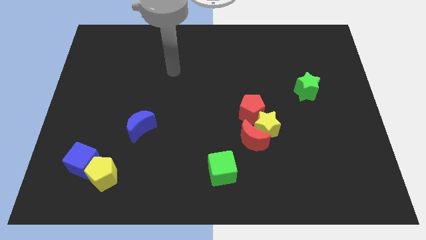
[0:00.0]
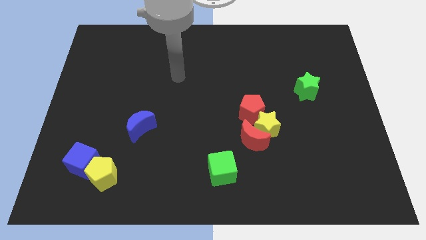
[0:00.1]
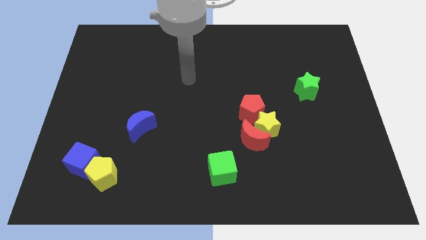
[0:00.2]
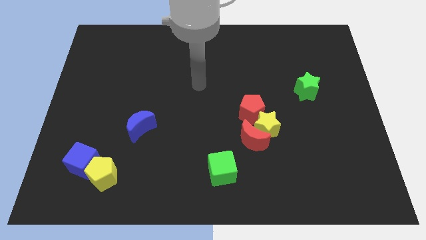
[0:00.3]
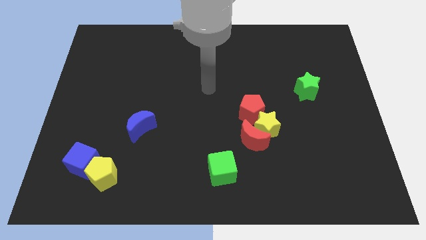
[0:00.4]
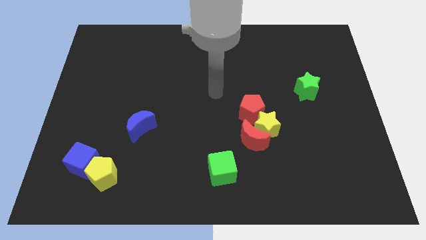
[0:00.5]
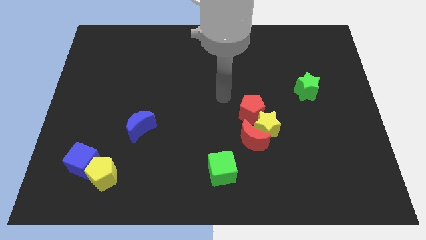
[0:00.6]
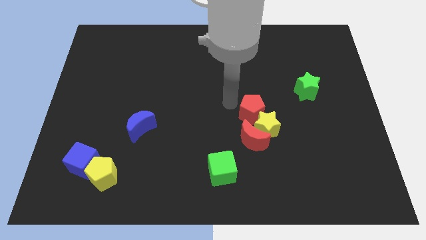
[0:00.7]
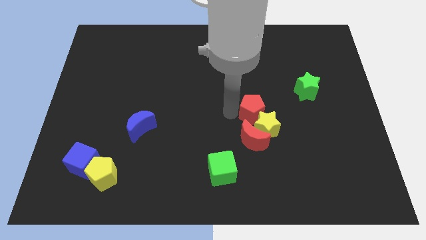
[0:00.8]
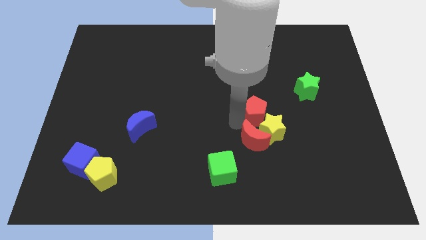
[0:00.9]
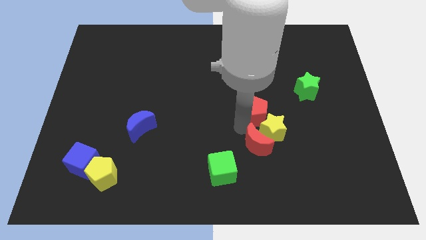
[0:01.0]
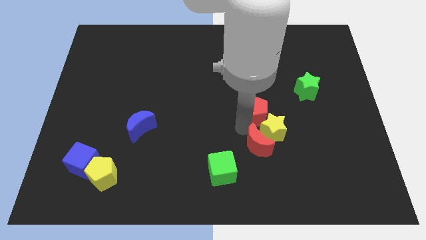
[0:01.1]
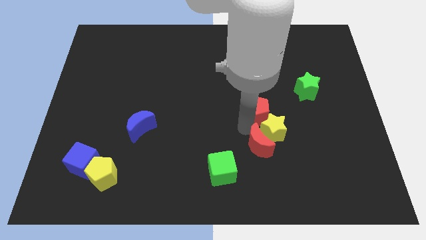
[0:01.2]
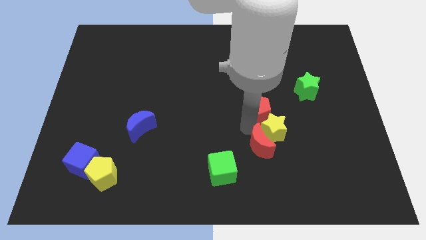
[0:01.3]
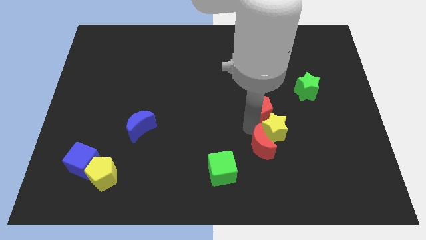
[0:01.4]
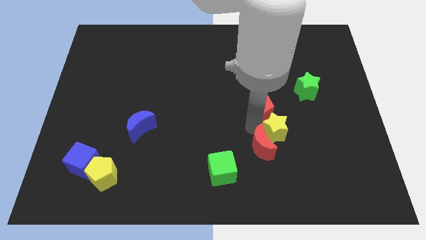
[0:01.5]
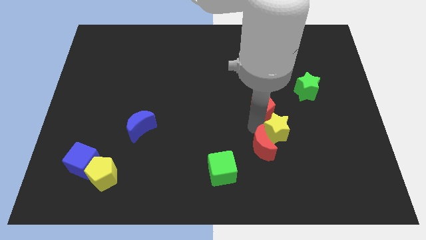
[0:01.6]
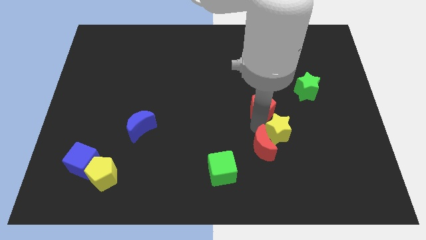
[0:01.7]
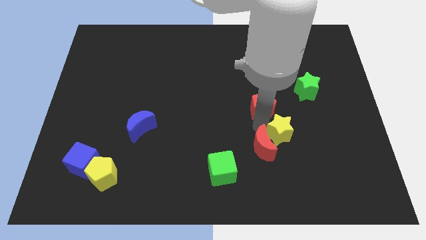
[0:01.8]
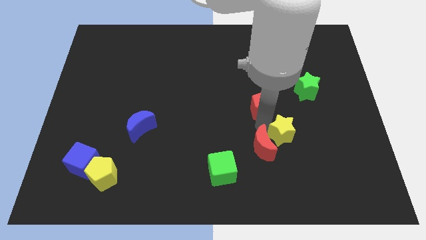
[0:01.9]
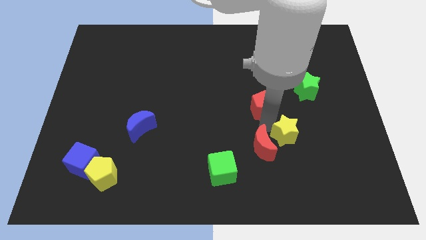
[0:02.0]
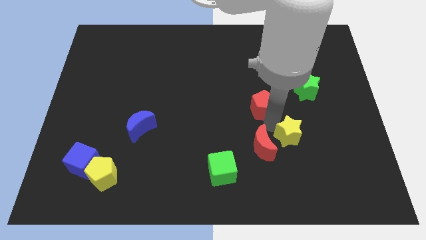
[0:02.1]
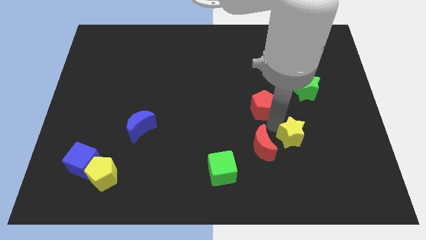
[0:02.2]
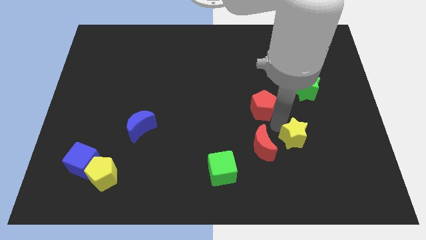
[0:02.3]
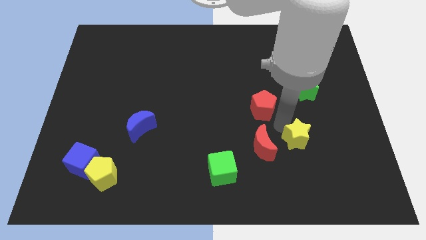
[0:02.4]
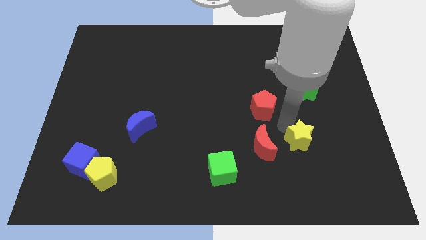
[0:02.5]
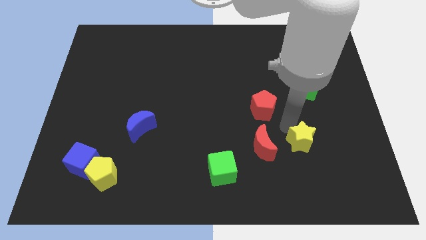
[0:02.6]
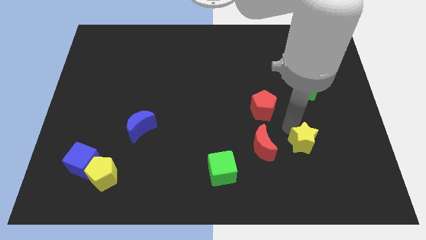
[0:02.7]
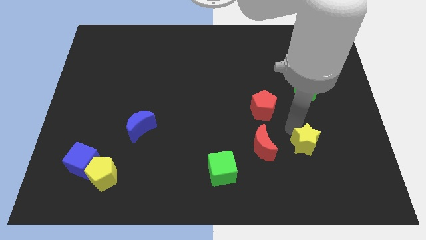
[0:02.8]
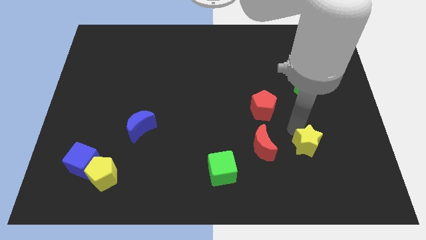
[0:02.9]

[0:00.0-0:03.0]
move the yellow star away from the red moon and red pentagon

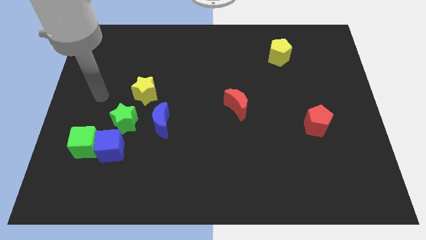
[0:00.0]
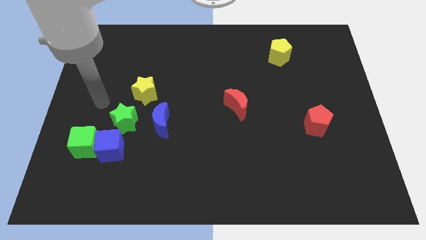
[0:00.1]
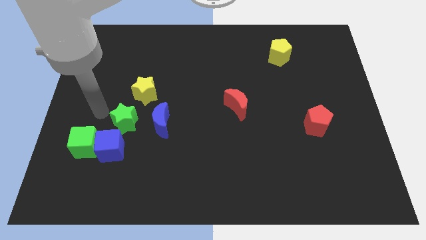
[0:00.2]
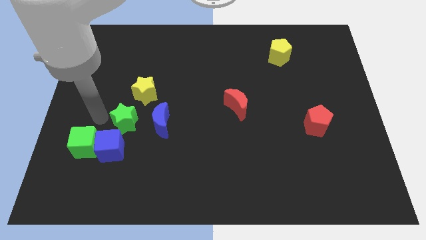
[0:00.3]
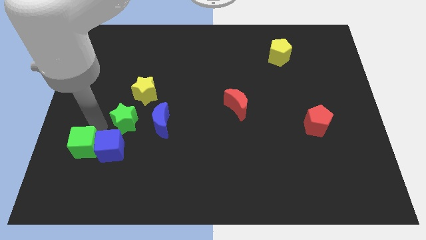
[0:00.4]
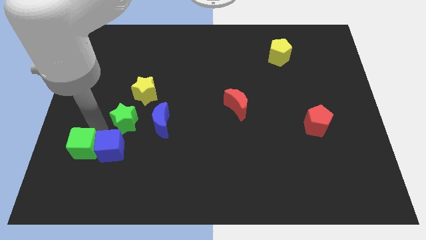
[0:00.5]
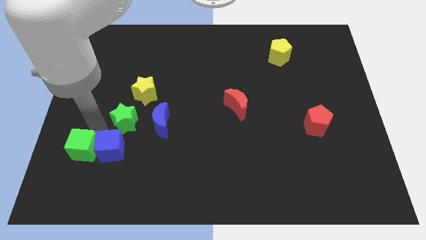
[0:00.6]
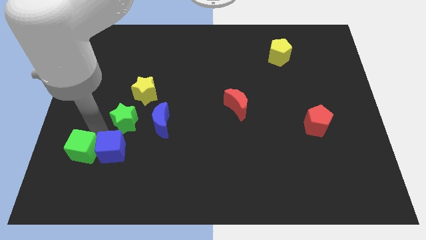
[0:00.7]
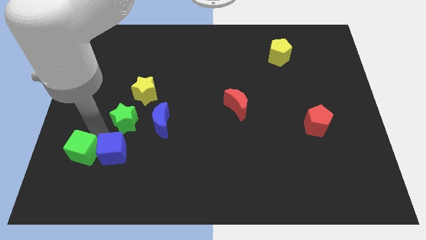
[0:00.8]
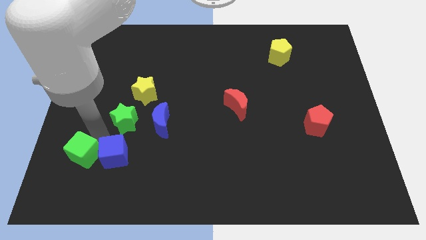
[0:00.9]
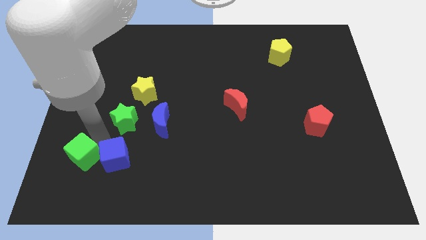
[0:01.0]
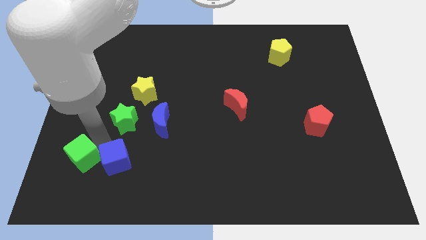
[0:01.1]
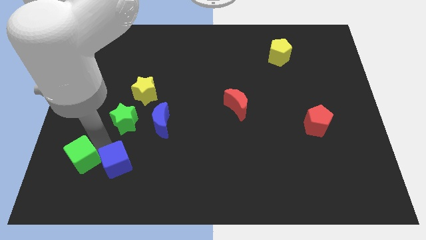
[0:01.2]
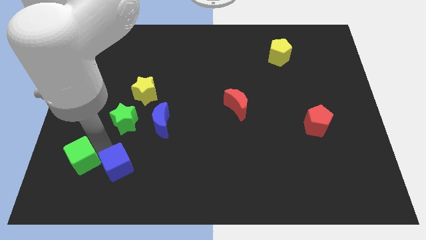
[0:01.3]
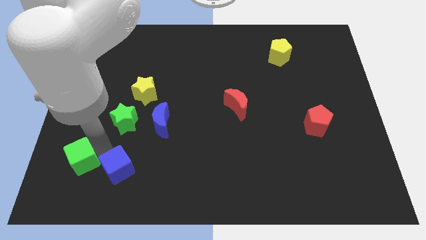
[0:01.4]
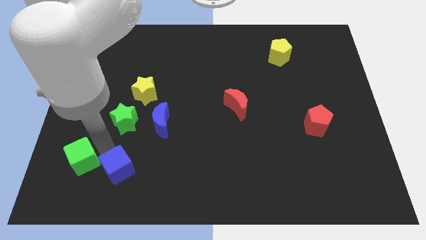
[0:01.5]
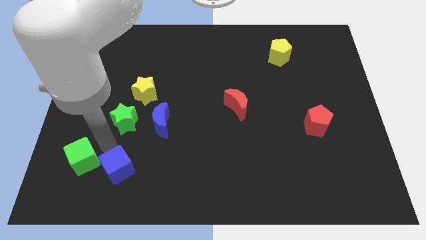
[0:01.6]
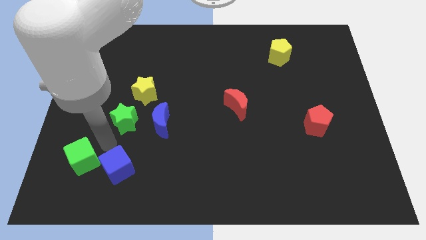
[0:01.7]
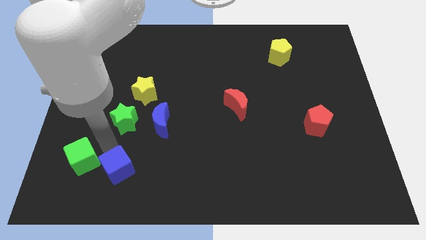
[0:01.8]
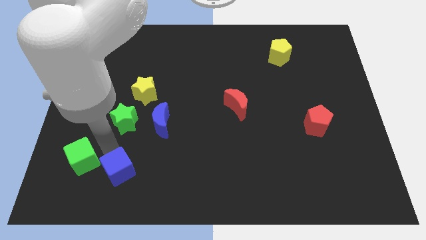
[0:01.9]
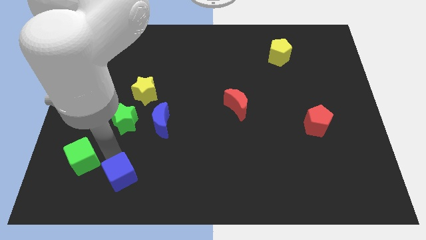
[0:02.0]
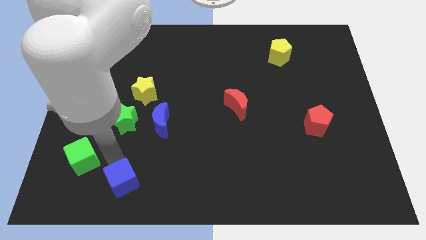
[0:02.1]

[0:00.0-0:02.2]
pull the blue cube apart from the green cube and green star

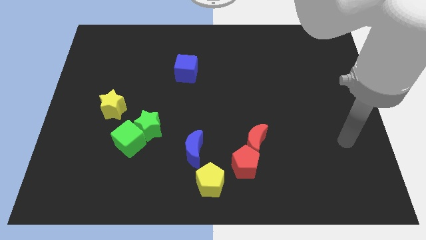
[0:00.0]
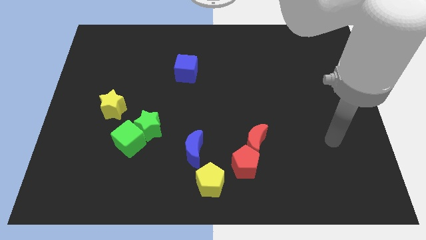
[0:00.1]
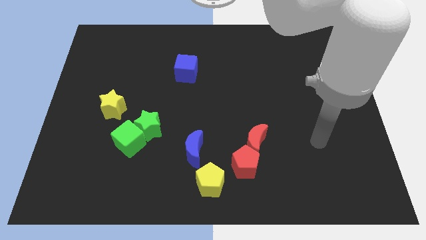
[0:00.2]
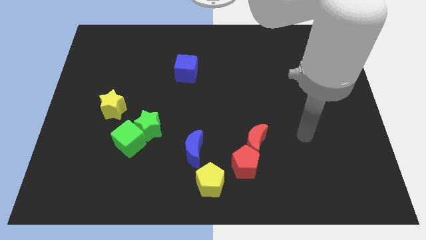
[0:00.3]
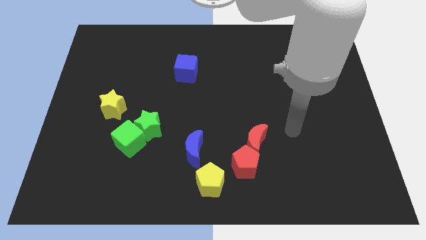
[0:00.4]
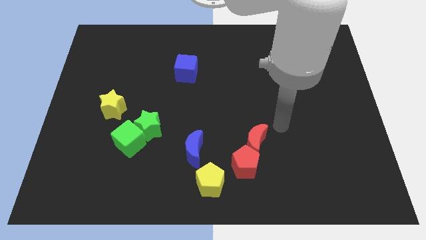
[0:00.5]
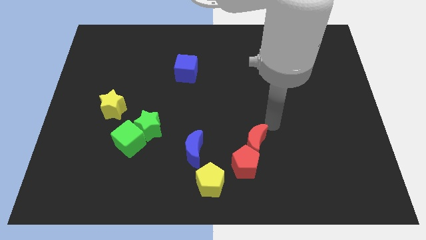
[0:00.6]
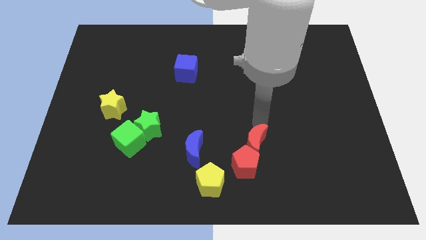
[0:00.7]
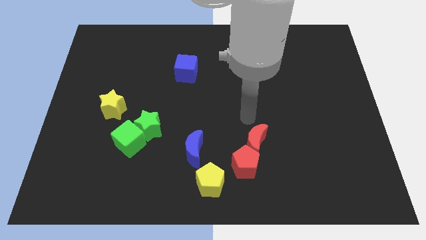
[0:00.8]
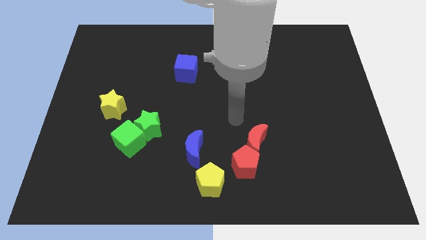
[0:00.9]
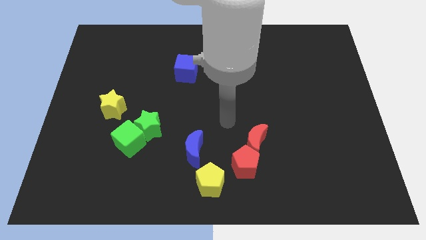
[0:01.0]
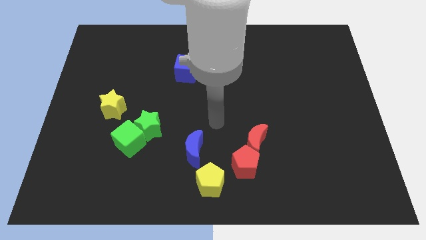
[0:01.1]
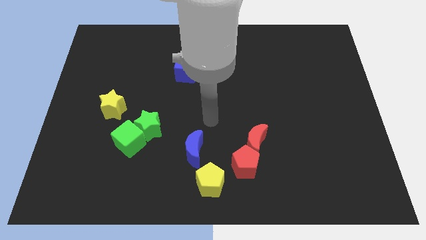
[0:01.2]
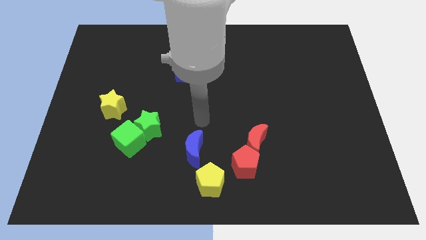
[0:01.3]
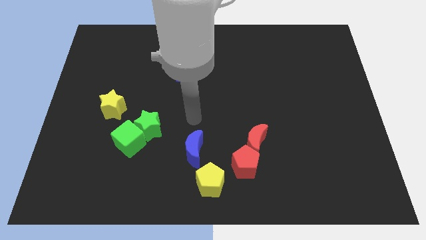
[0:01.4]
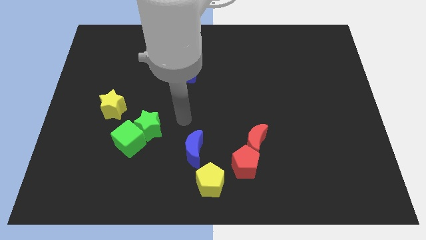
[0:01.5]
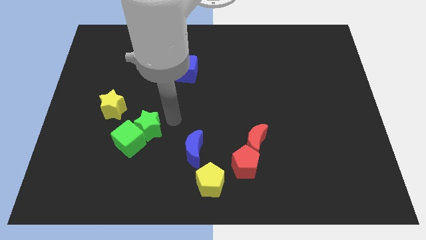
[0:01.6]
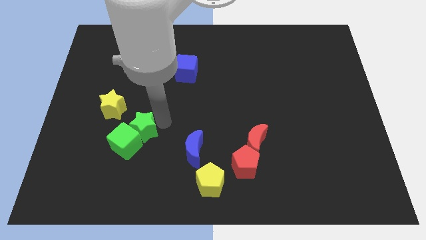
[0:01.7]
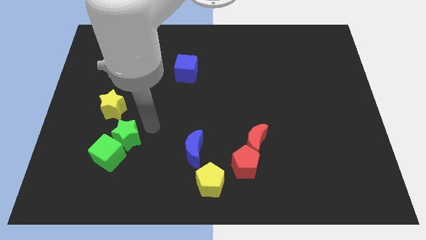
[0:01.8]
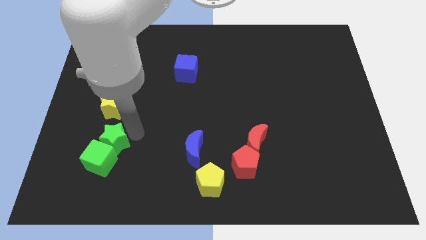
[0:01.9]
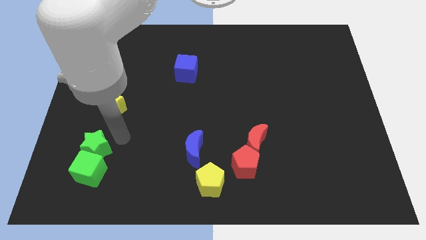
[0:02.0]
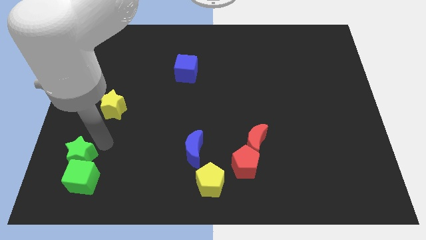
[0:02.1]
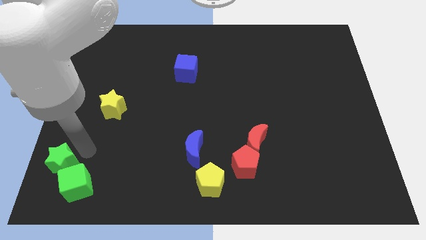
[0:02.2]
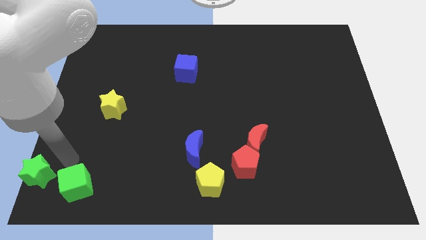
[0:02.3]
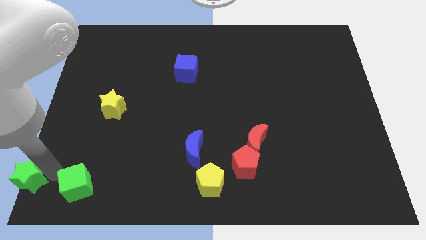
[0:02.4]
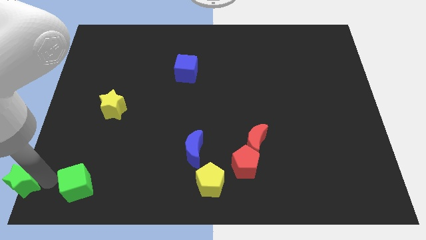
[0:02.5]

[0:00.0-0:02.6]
pull the green cube apart from the green star

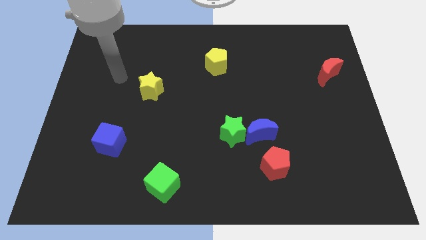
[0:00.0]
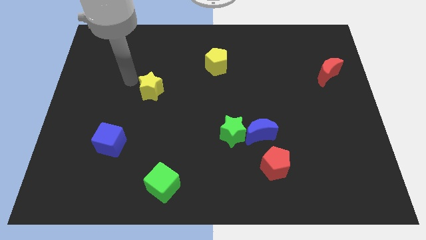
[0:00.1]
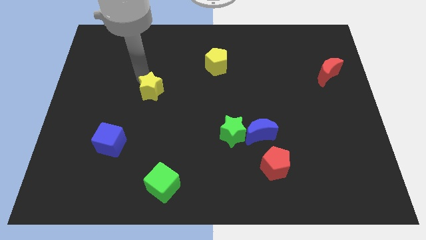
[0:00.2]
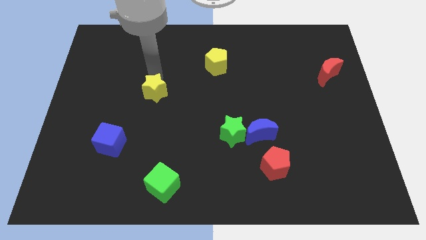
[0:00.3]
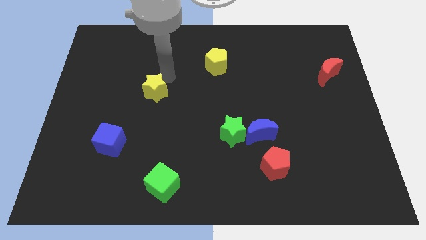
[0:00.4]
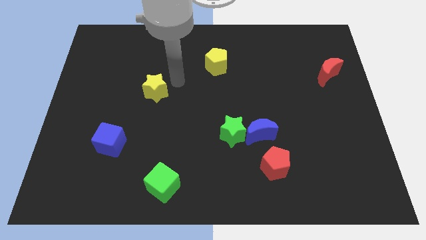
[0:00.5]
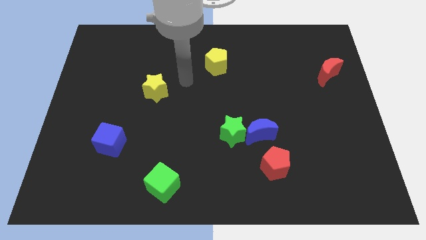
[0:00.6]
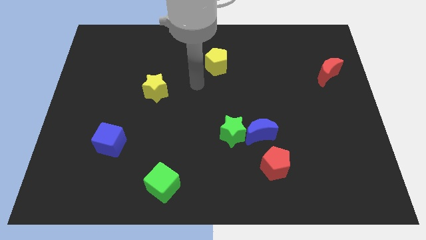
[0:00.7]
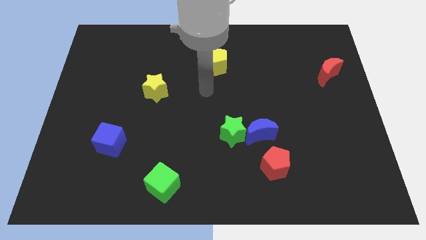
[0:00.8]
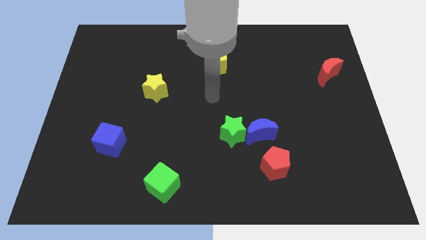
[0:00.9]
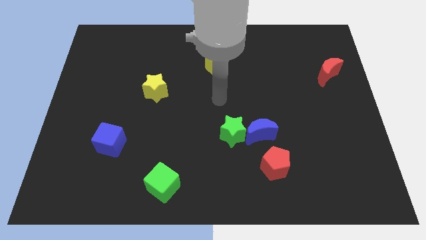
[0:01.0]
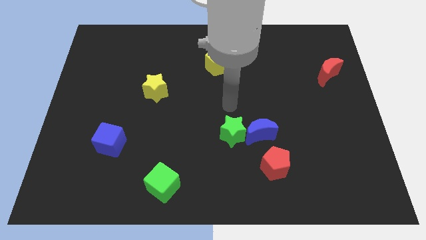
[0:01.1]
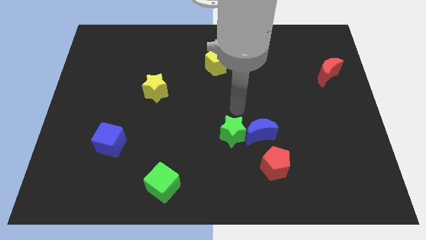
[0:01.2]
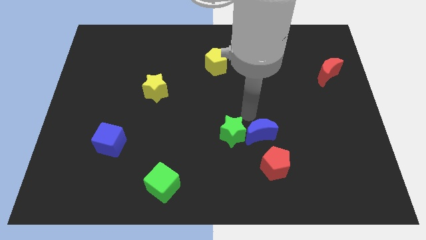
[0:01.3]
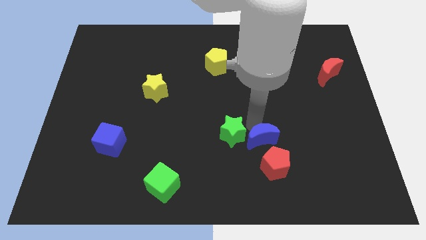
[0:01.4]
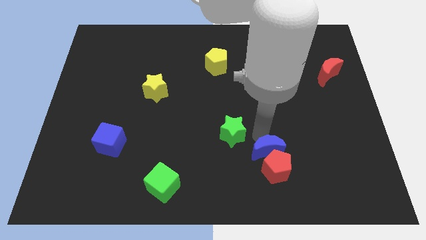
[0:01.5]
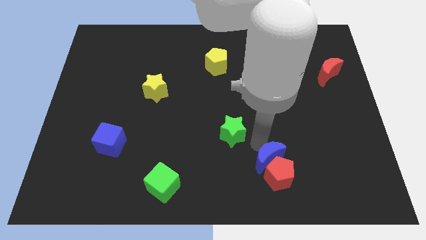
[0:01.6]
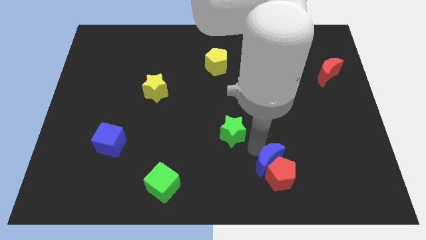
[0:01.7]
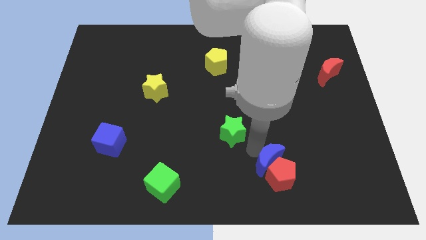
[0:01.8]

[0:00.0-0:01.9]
move the green star away from the blue moon
